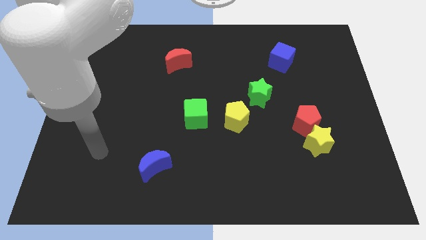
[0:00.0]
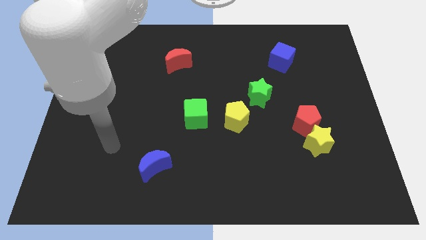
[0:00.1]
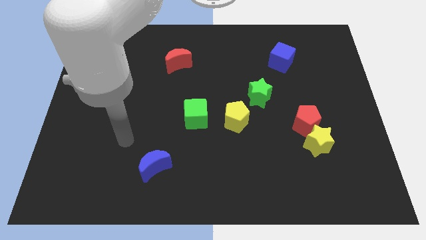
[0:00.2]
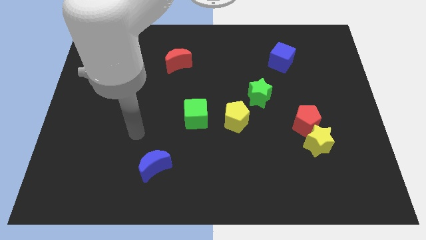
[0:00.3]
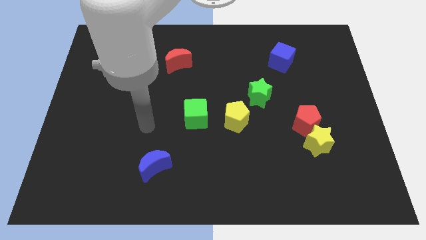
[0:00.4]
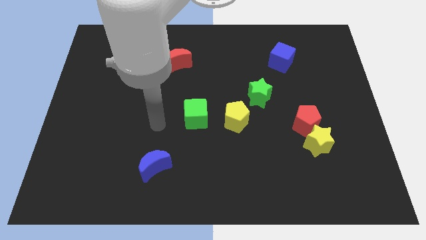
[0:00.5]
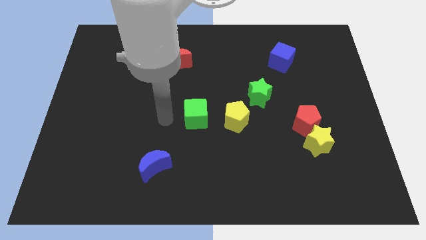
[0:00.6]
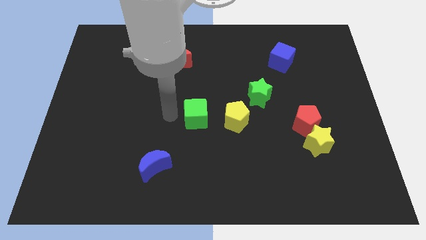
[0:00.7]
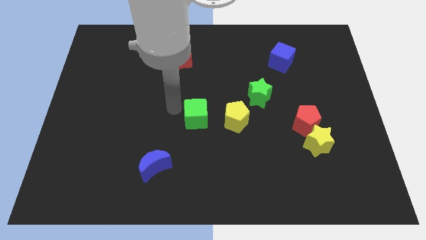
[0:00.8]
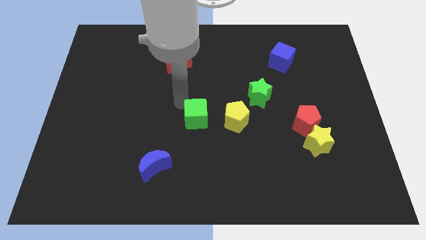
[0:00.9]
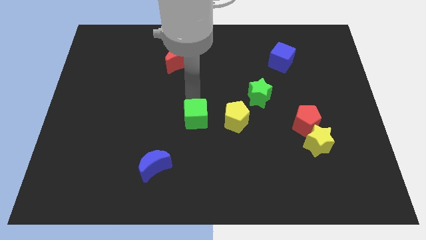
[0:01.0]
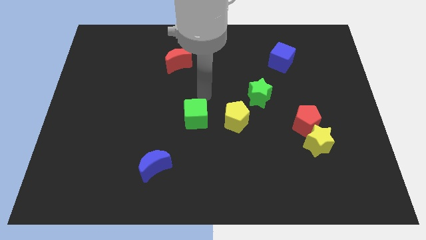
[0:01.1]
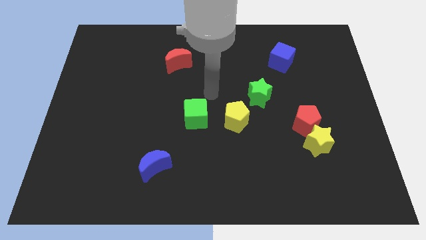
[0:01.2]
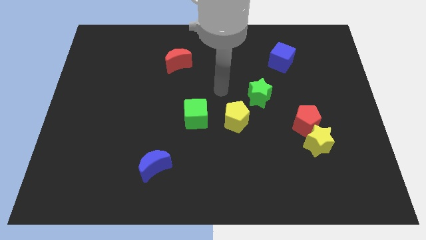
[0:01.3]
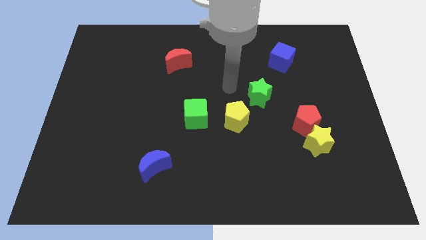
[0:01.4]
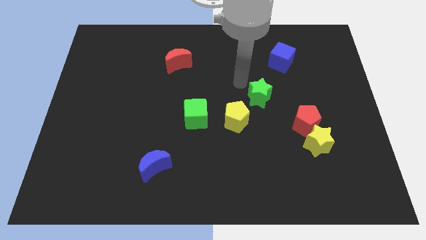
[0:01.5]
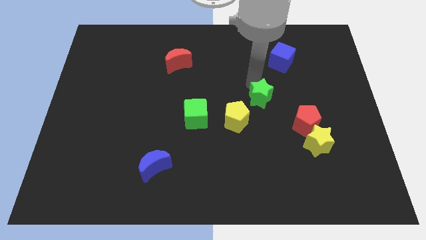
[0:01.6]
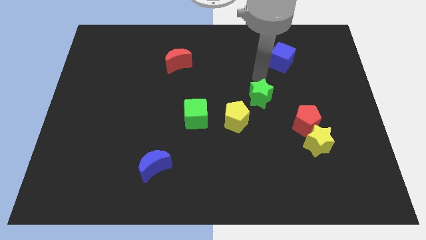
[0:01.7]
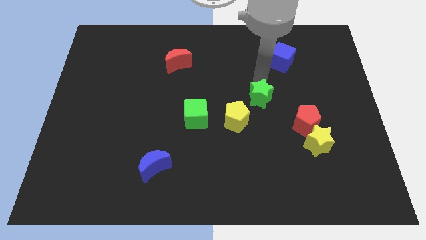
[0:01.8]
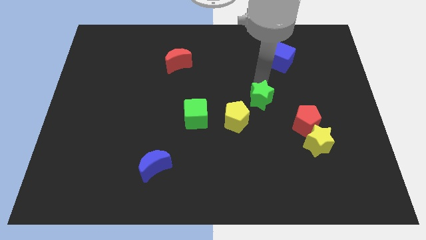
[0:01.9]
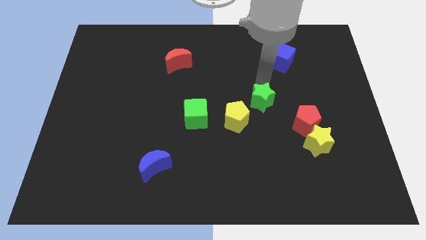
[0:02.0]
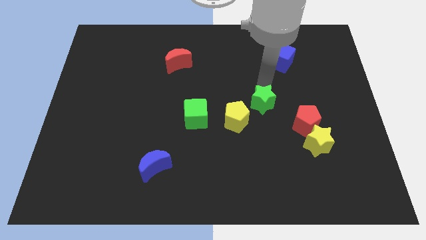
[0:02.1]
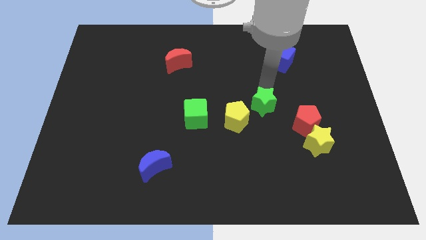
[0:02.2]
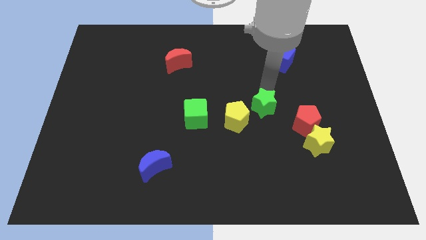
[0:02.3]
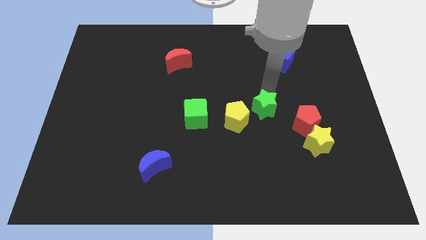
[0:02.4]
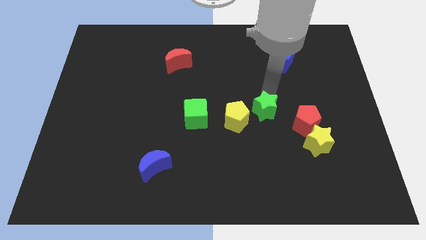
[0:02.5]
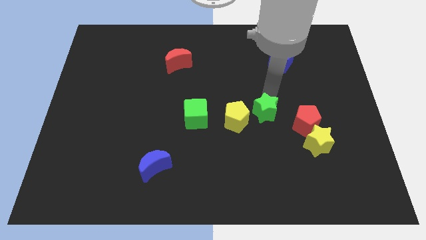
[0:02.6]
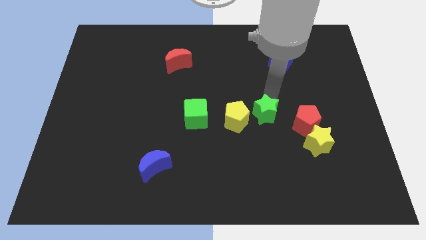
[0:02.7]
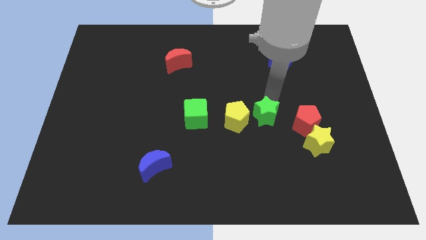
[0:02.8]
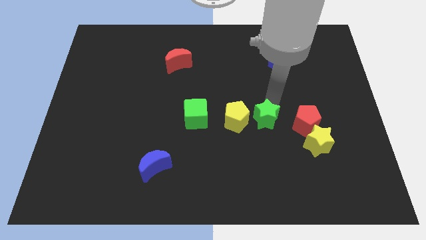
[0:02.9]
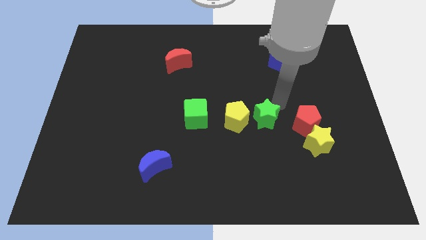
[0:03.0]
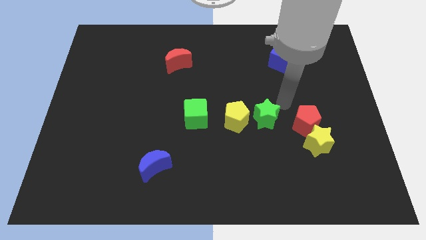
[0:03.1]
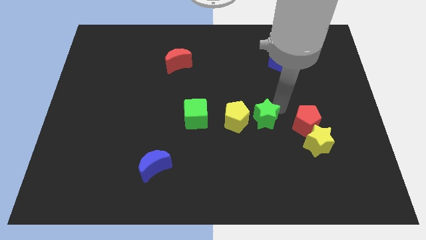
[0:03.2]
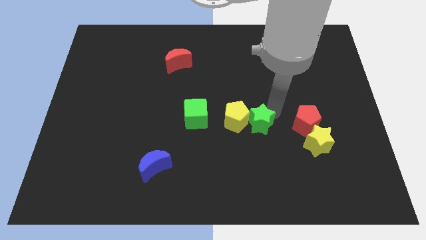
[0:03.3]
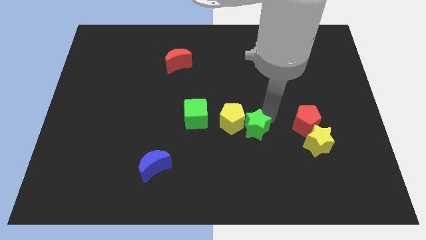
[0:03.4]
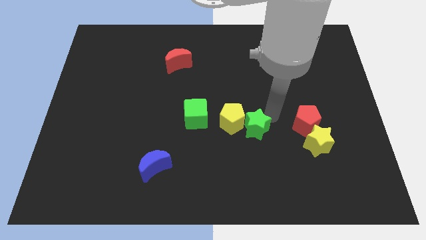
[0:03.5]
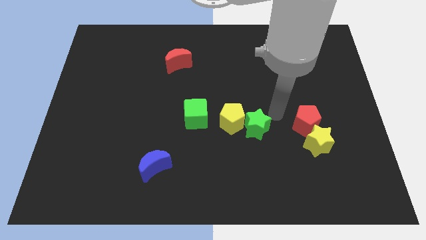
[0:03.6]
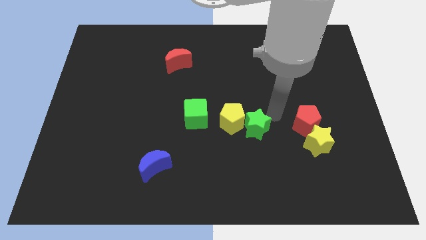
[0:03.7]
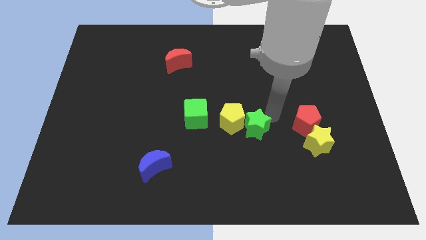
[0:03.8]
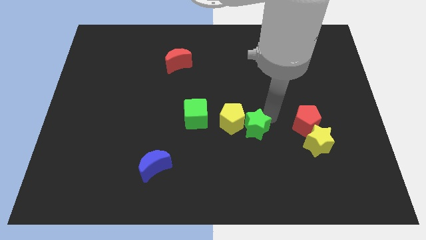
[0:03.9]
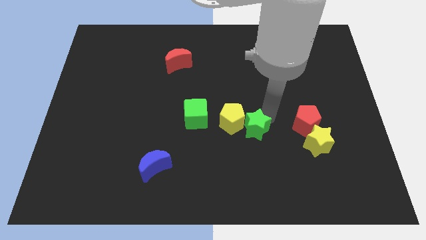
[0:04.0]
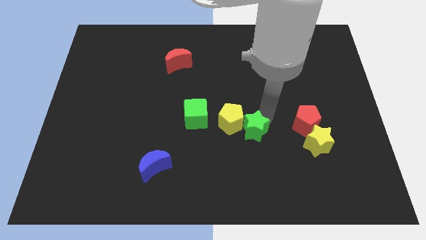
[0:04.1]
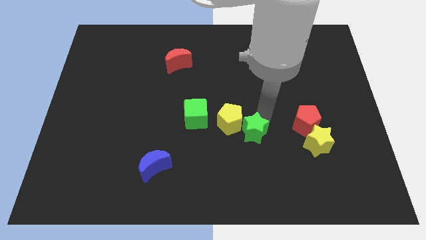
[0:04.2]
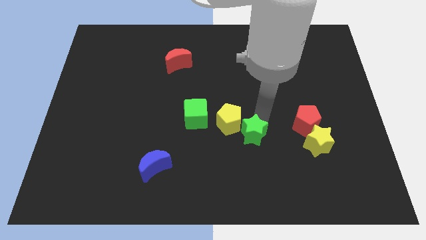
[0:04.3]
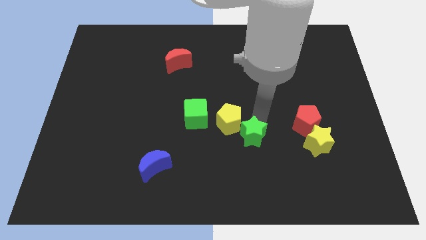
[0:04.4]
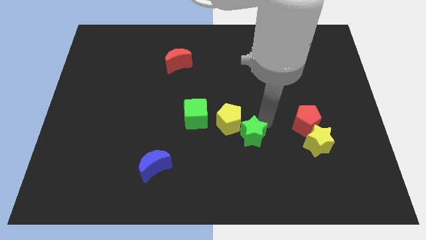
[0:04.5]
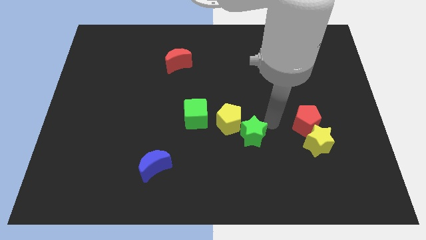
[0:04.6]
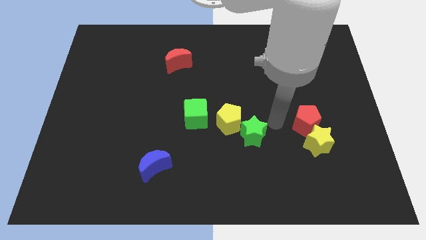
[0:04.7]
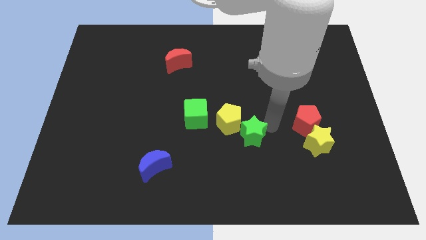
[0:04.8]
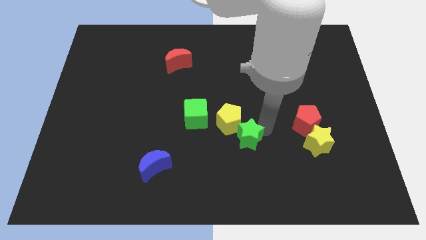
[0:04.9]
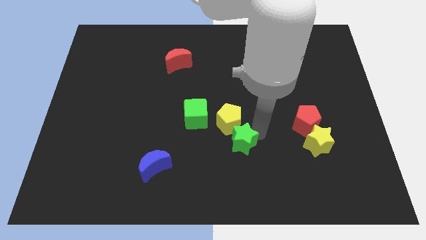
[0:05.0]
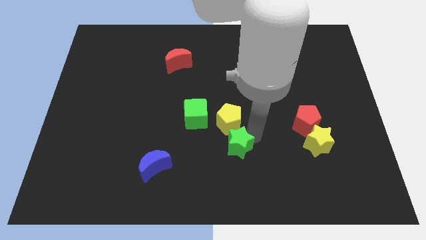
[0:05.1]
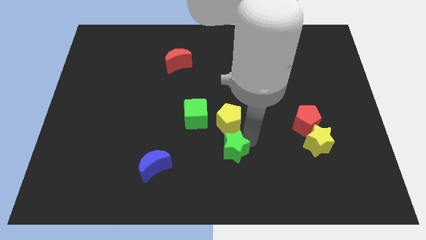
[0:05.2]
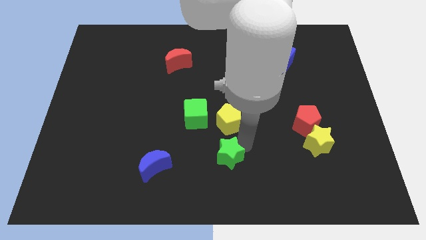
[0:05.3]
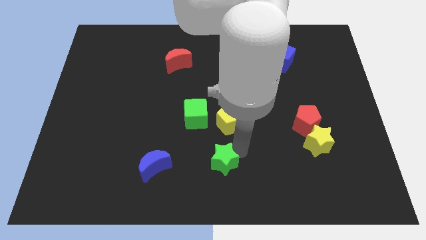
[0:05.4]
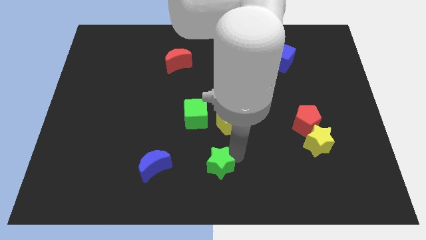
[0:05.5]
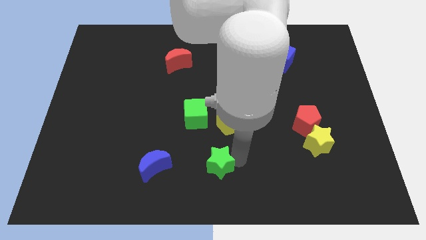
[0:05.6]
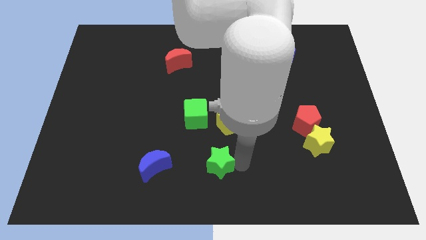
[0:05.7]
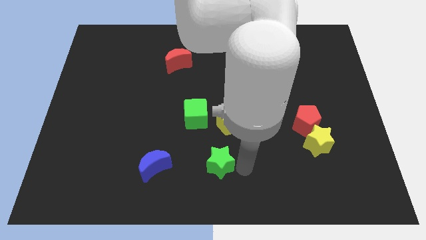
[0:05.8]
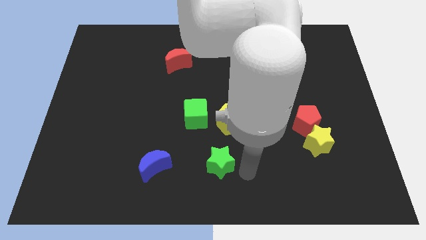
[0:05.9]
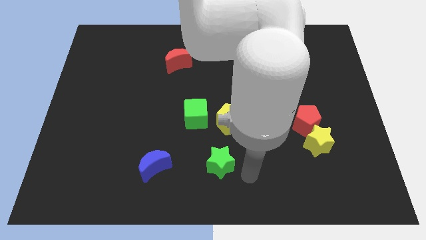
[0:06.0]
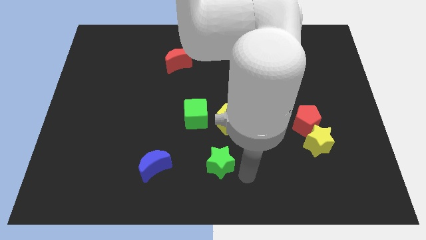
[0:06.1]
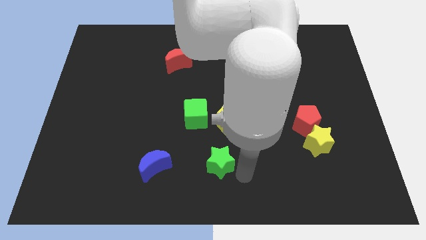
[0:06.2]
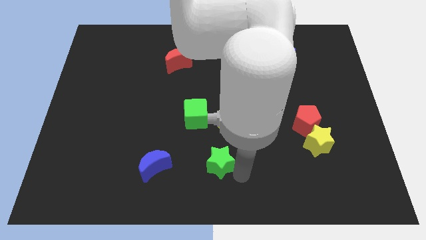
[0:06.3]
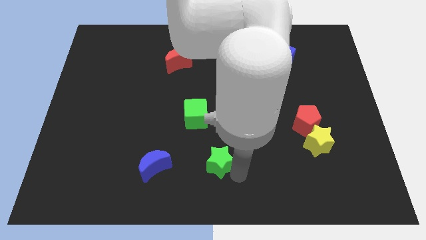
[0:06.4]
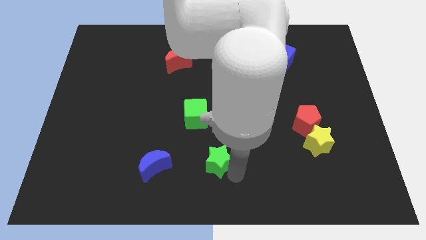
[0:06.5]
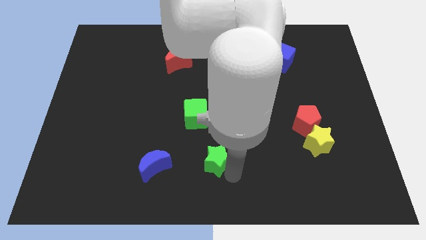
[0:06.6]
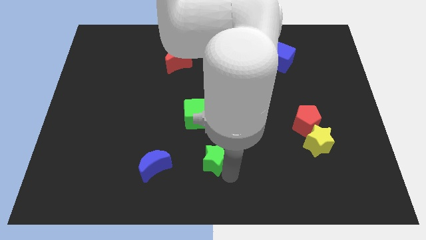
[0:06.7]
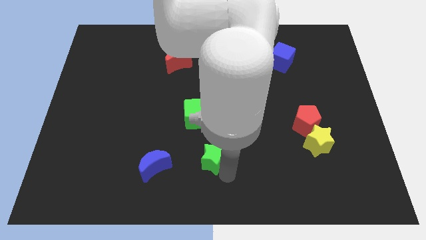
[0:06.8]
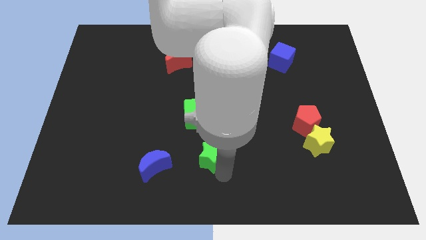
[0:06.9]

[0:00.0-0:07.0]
move the green star down and then left

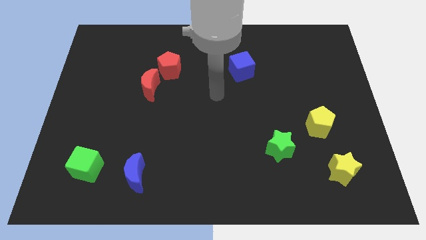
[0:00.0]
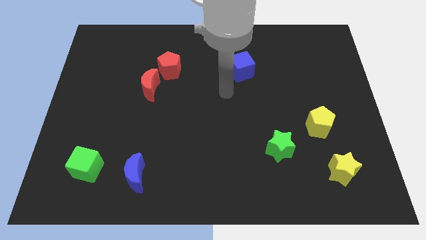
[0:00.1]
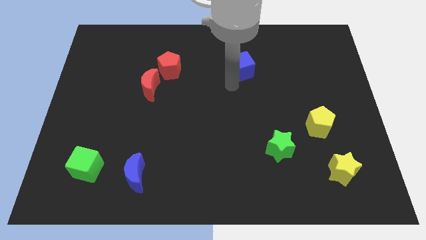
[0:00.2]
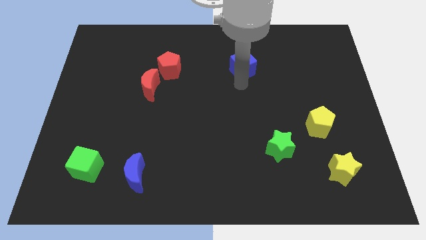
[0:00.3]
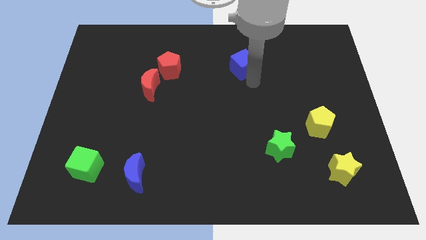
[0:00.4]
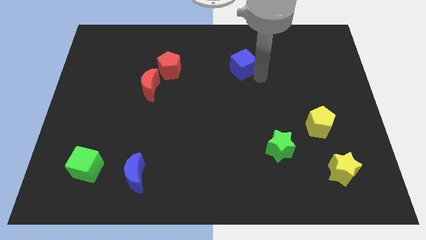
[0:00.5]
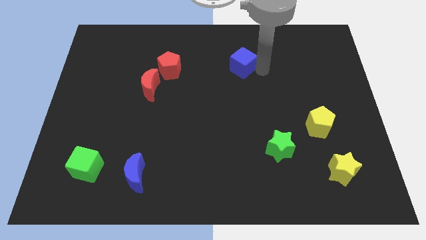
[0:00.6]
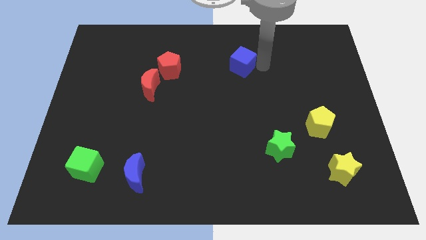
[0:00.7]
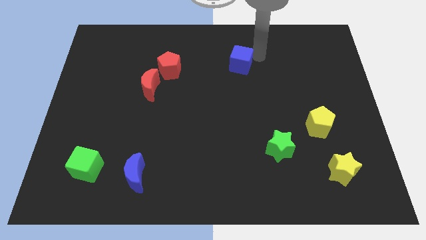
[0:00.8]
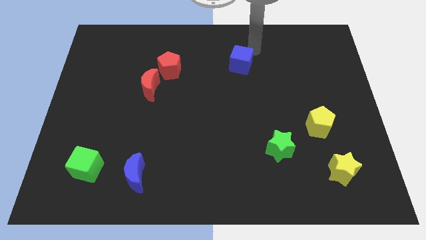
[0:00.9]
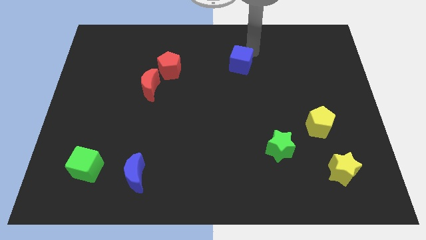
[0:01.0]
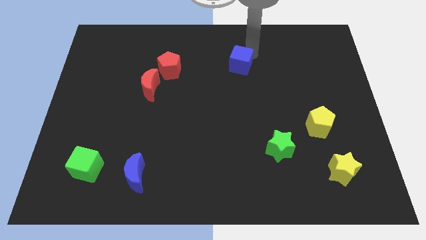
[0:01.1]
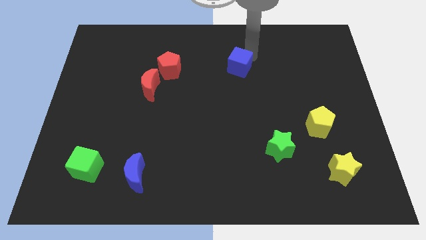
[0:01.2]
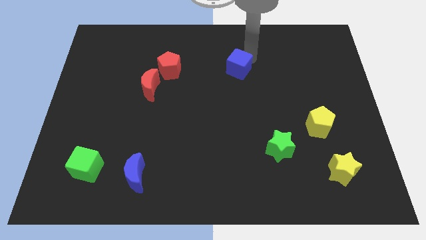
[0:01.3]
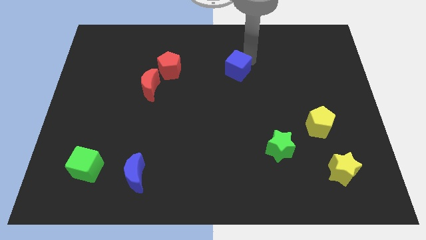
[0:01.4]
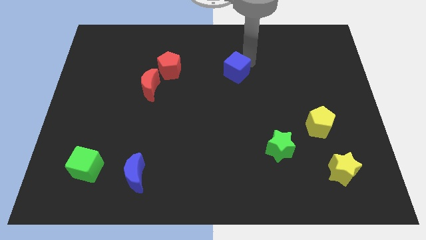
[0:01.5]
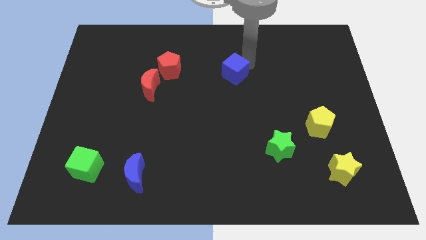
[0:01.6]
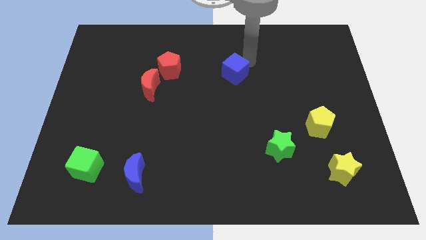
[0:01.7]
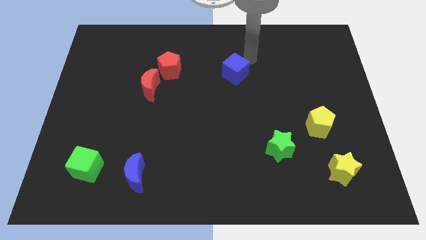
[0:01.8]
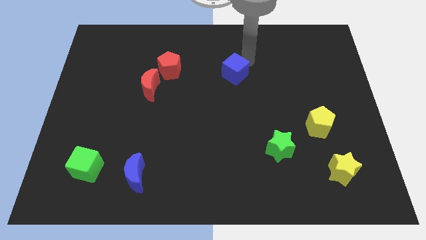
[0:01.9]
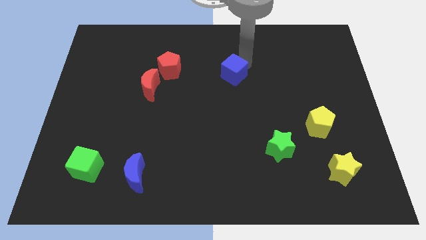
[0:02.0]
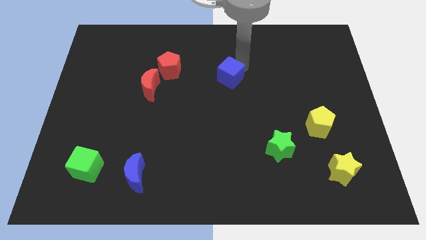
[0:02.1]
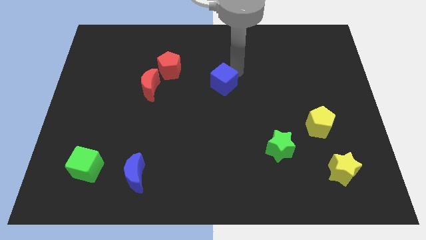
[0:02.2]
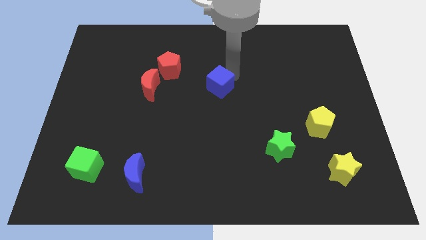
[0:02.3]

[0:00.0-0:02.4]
slide the blue cube a little bit down and then left
